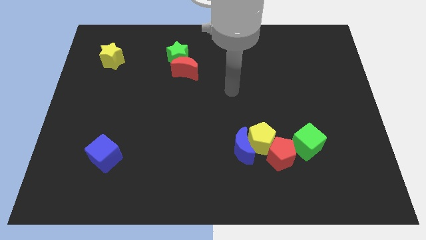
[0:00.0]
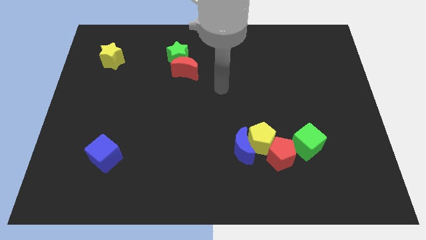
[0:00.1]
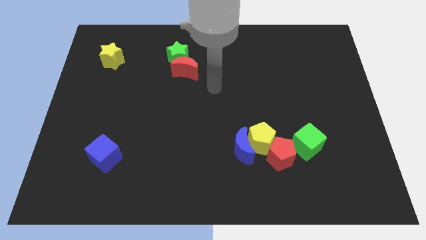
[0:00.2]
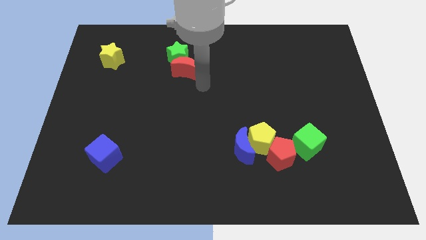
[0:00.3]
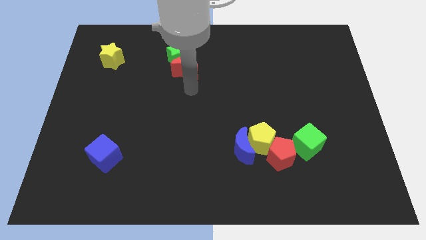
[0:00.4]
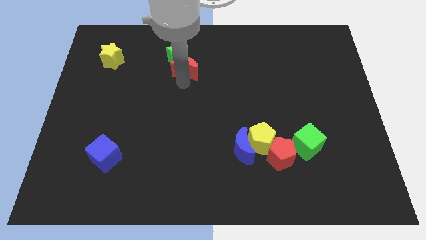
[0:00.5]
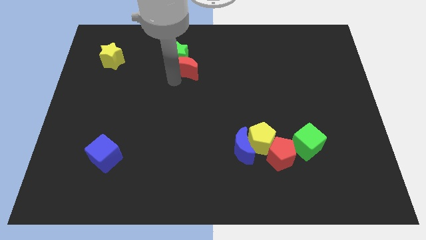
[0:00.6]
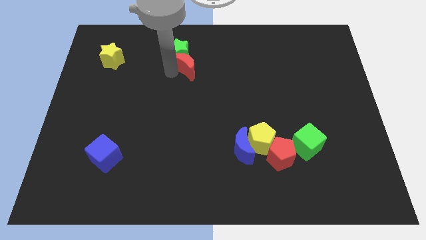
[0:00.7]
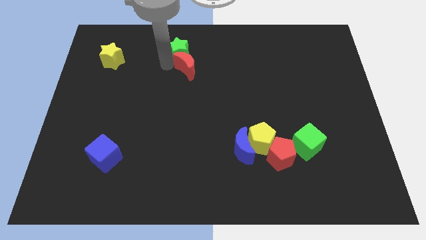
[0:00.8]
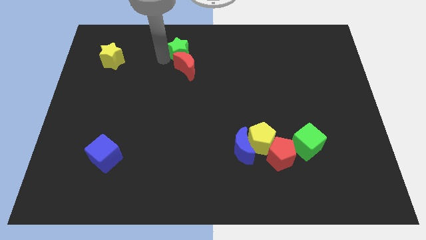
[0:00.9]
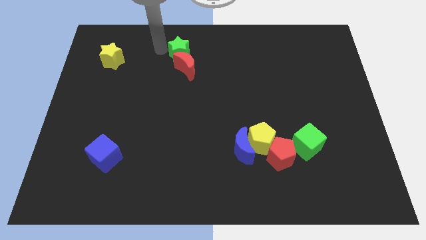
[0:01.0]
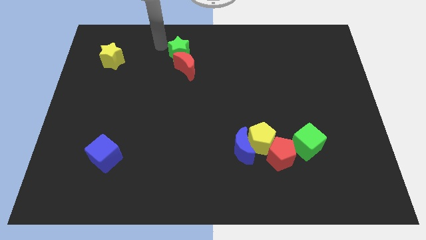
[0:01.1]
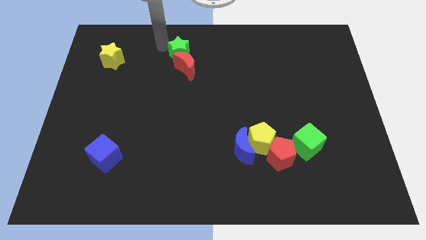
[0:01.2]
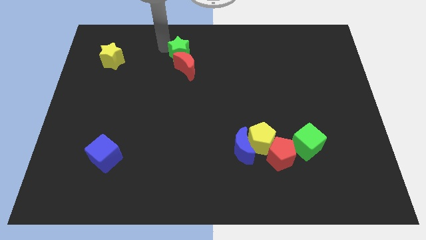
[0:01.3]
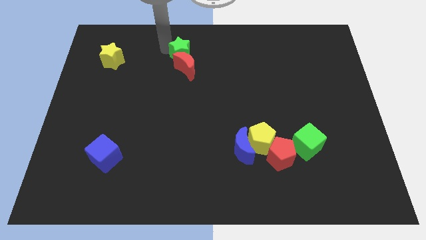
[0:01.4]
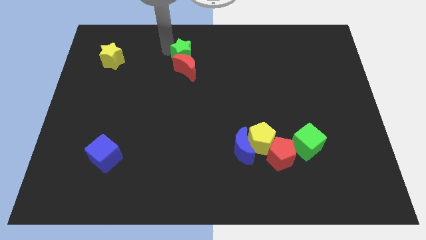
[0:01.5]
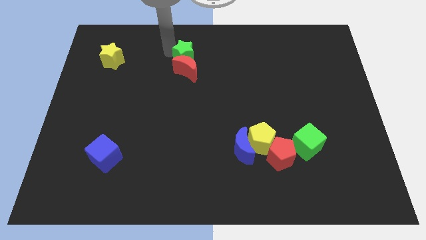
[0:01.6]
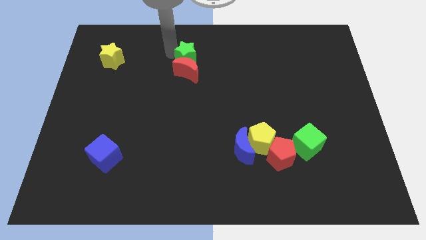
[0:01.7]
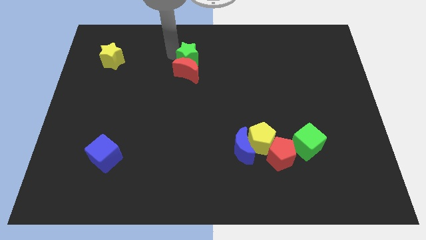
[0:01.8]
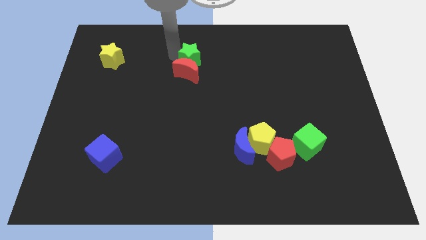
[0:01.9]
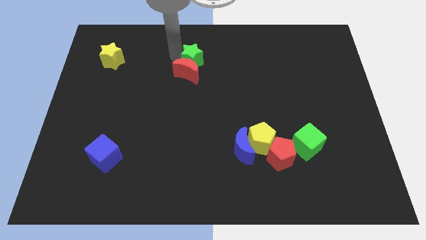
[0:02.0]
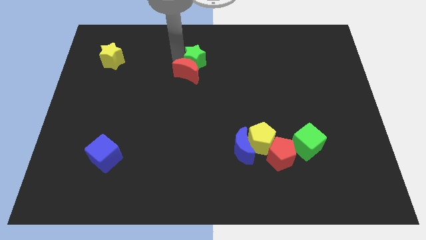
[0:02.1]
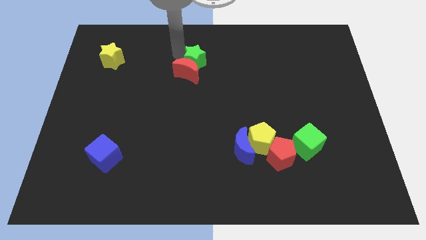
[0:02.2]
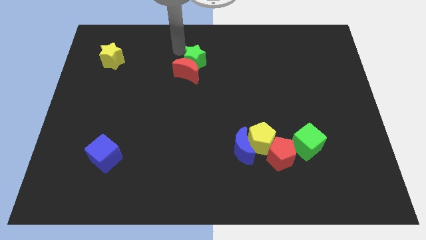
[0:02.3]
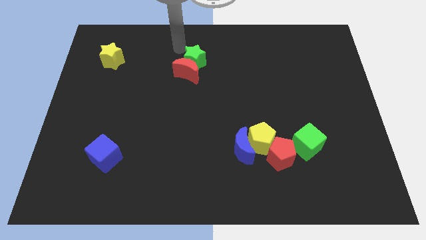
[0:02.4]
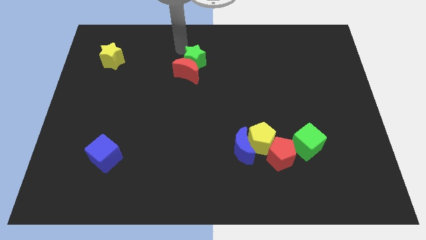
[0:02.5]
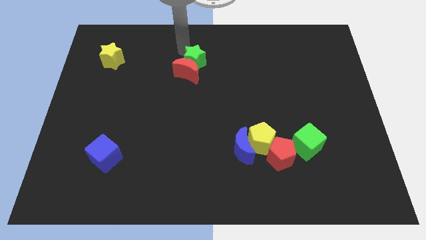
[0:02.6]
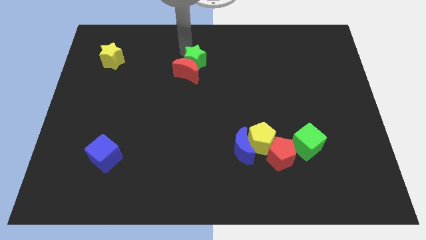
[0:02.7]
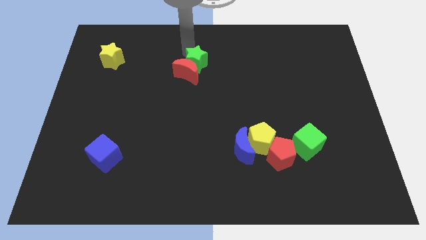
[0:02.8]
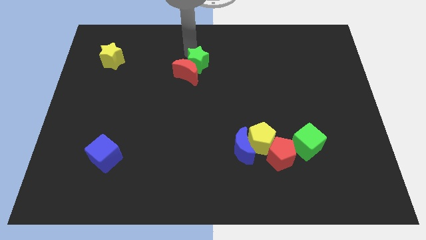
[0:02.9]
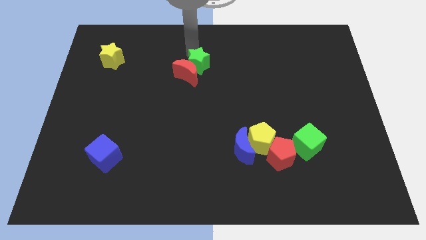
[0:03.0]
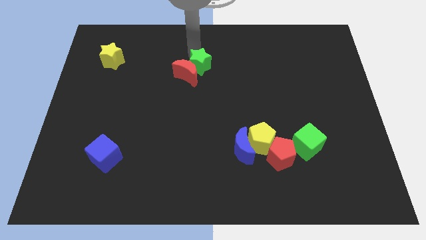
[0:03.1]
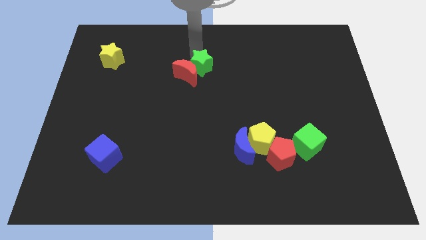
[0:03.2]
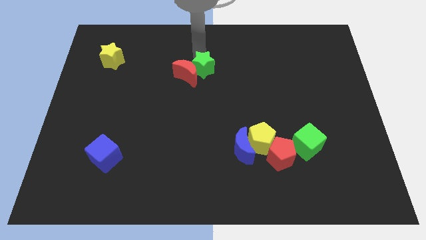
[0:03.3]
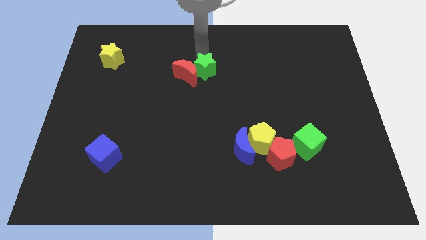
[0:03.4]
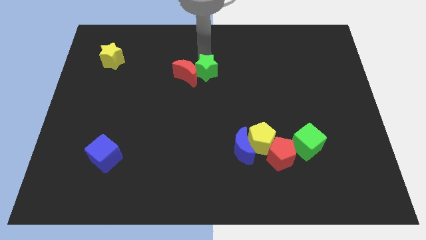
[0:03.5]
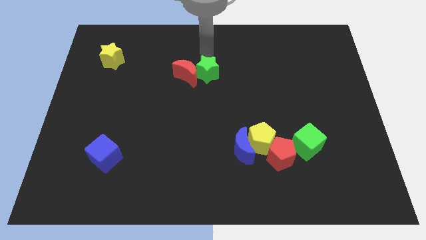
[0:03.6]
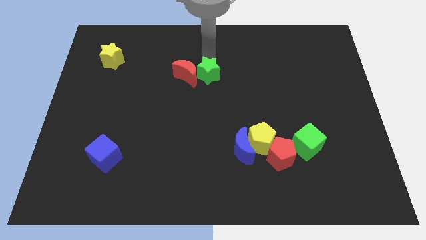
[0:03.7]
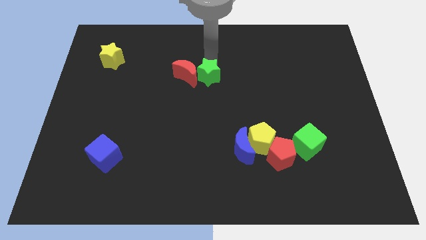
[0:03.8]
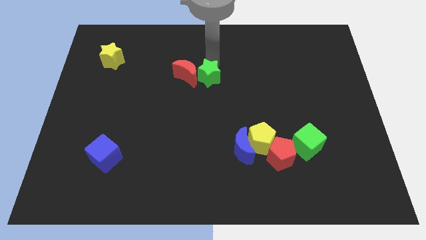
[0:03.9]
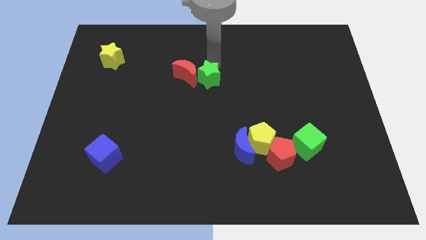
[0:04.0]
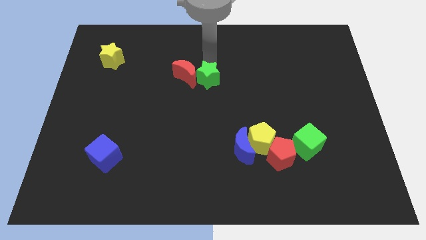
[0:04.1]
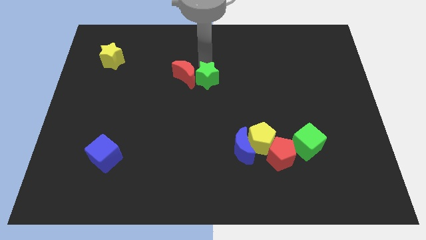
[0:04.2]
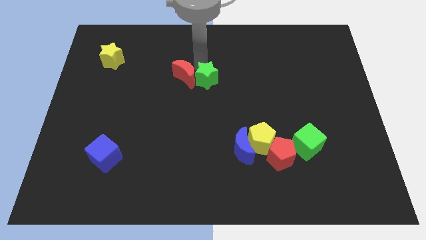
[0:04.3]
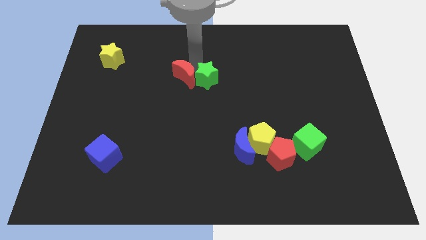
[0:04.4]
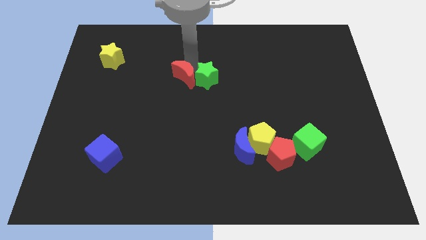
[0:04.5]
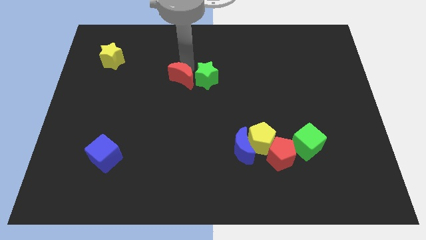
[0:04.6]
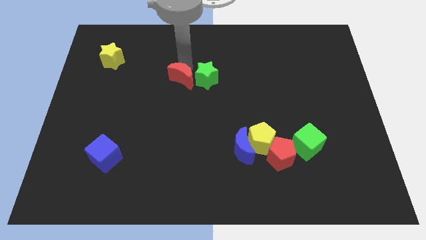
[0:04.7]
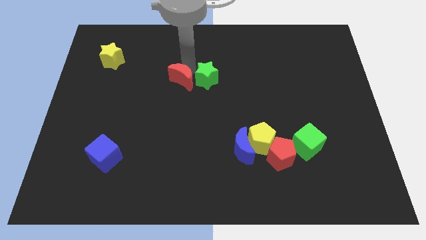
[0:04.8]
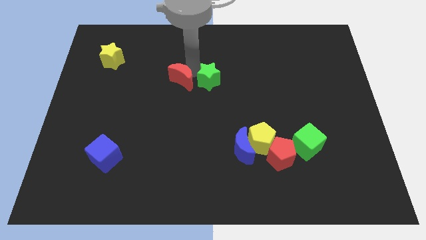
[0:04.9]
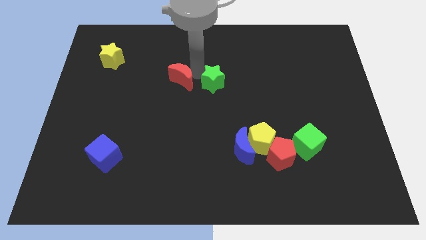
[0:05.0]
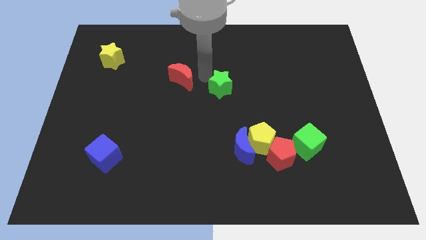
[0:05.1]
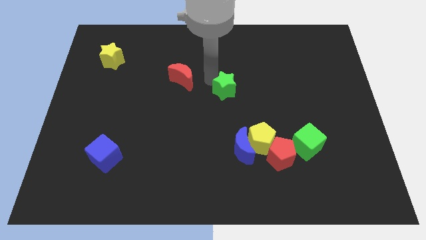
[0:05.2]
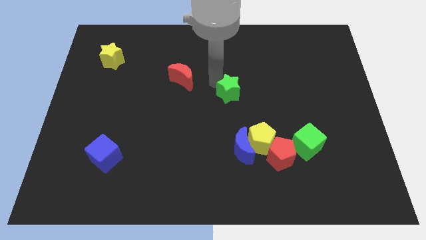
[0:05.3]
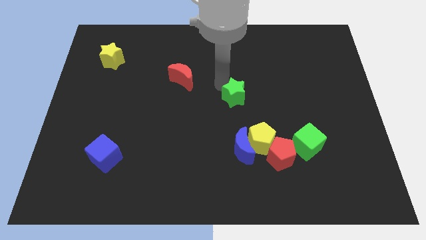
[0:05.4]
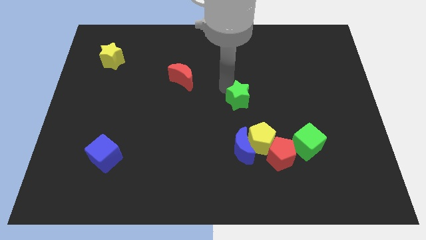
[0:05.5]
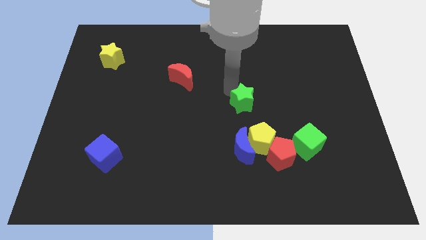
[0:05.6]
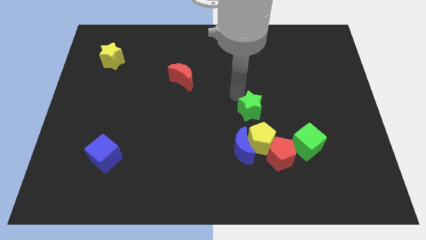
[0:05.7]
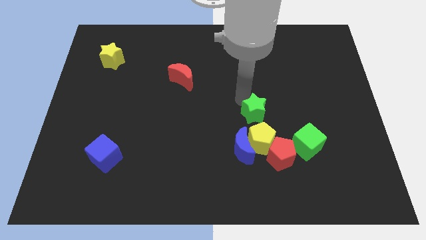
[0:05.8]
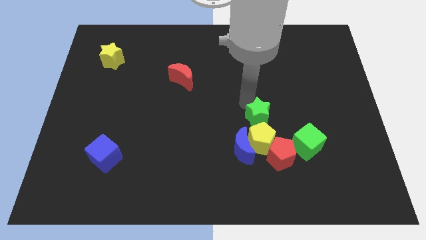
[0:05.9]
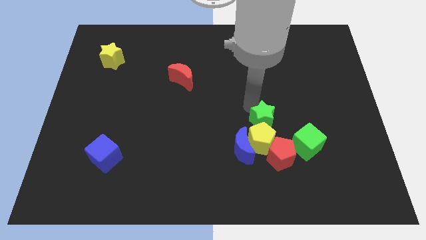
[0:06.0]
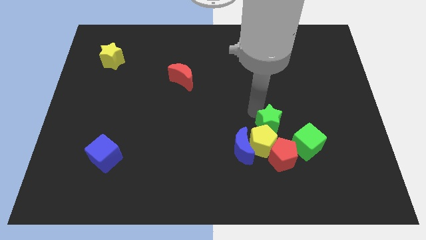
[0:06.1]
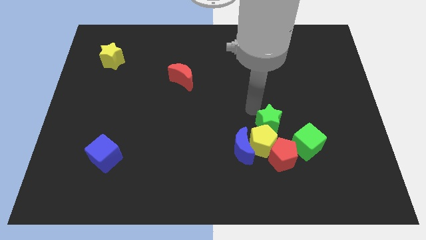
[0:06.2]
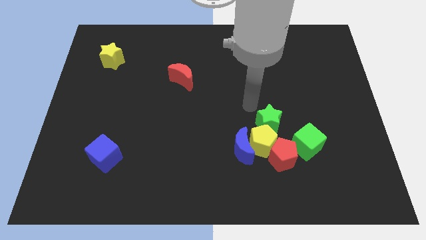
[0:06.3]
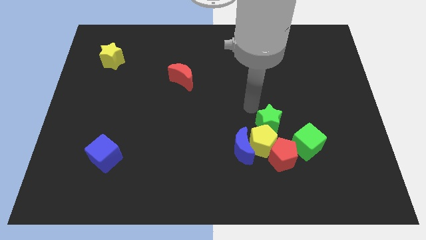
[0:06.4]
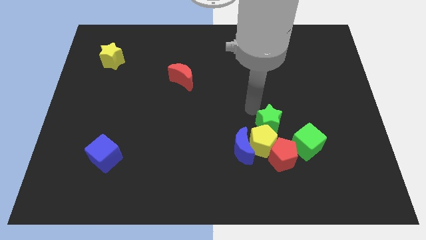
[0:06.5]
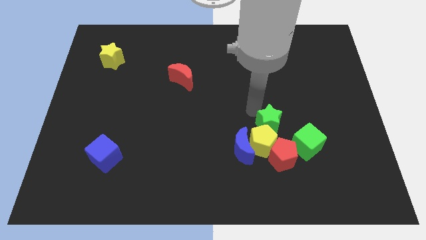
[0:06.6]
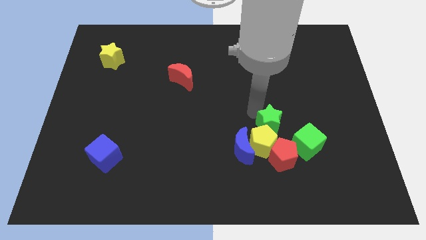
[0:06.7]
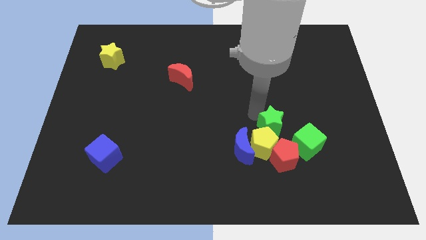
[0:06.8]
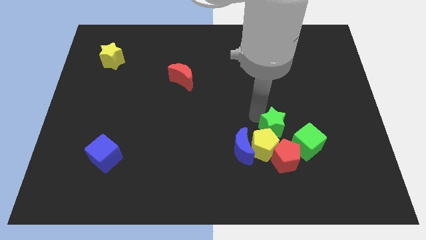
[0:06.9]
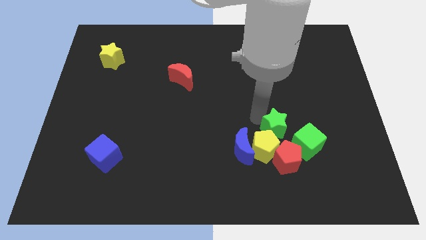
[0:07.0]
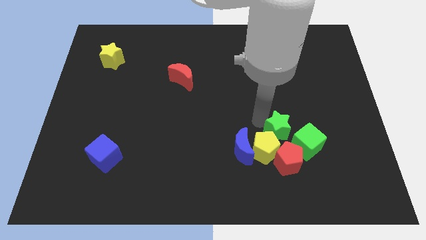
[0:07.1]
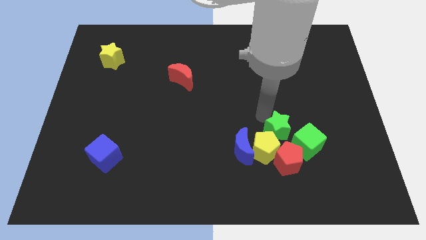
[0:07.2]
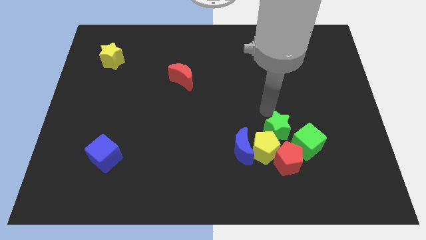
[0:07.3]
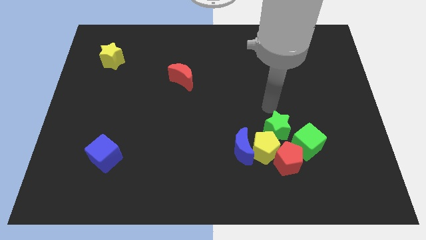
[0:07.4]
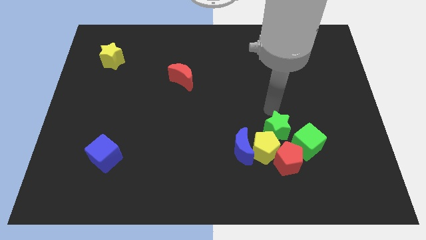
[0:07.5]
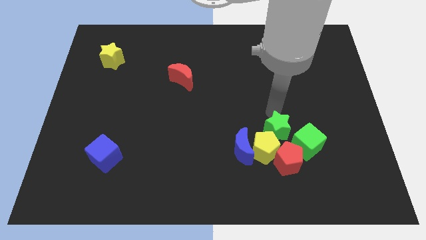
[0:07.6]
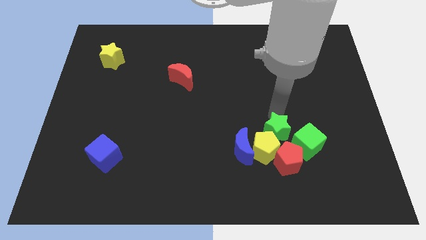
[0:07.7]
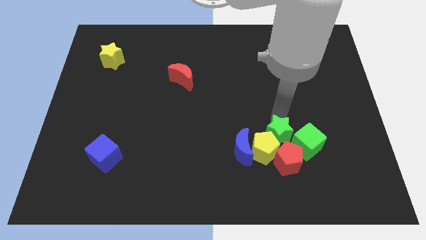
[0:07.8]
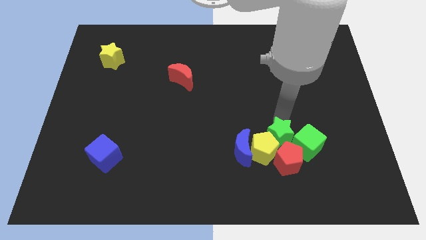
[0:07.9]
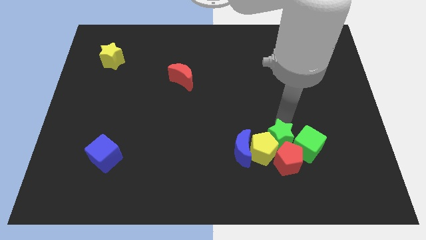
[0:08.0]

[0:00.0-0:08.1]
put the green star to the red pentagon
